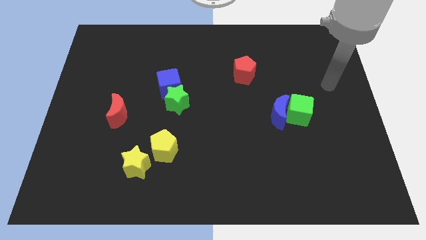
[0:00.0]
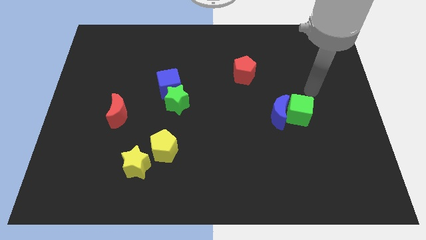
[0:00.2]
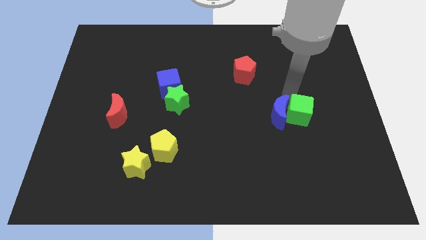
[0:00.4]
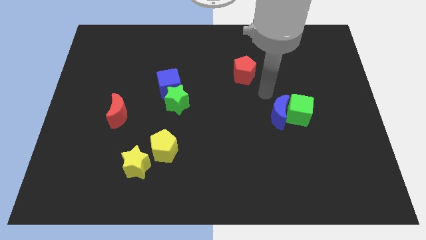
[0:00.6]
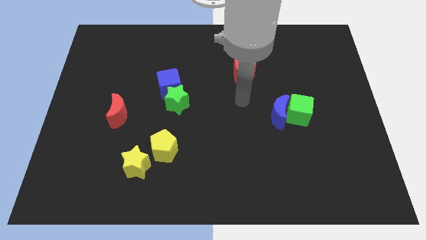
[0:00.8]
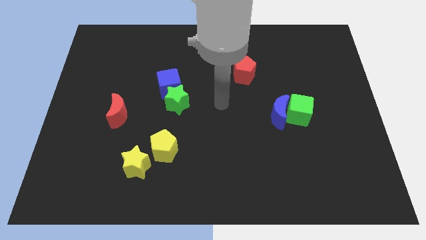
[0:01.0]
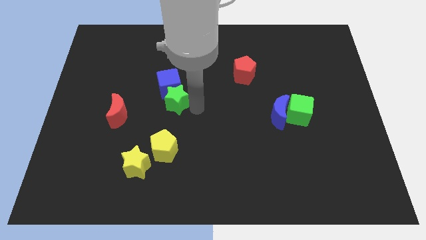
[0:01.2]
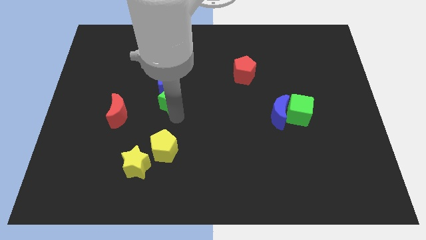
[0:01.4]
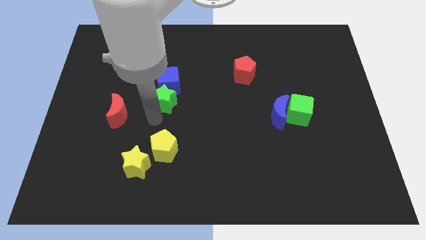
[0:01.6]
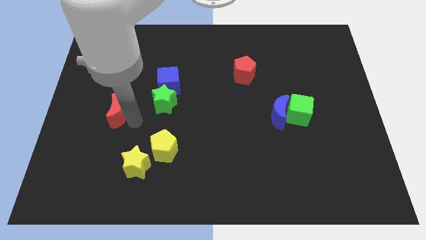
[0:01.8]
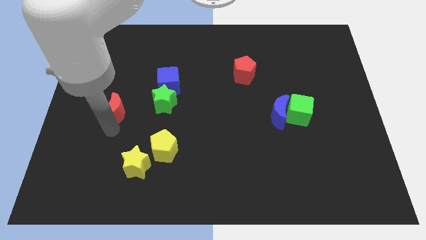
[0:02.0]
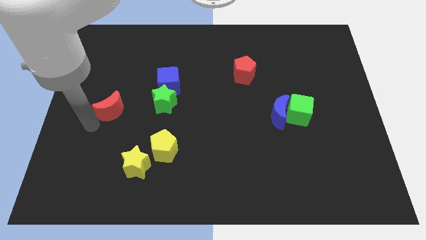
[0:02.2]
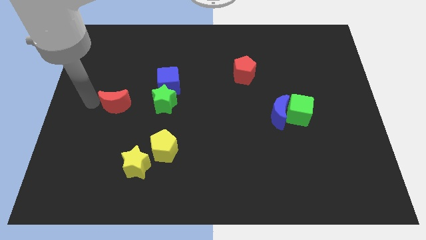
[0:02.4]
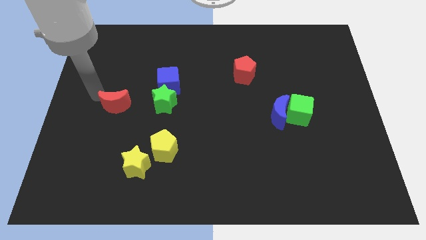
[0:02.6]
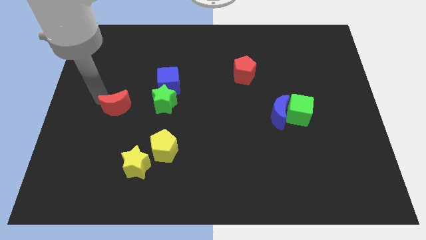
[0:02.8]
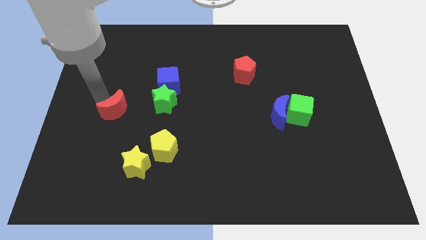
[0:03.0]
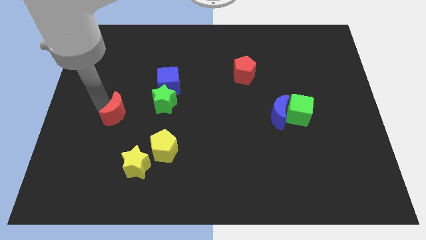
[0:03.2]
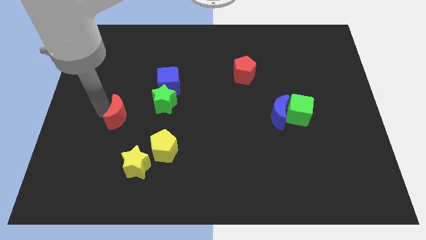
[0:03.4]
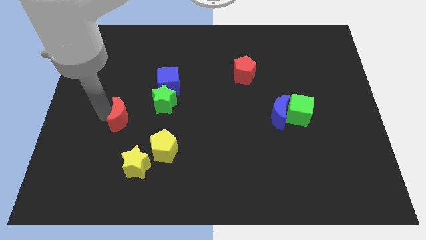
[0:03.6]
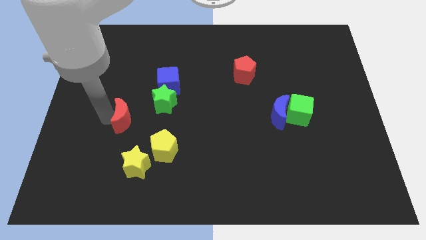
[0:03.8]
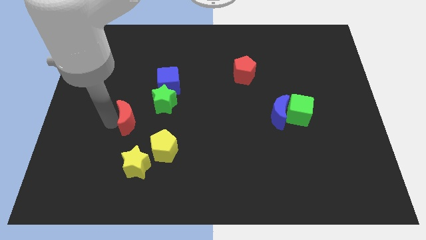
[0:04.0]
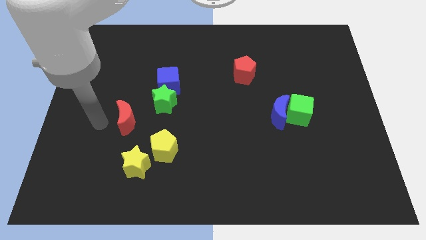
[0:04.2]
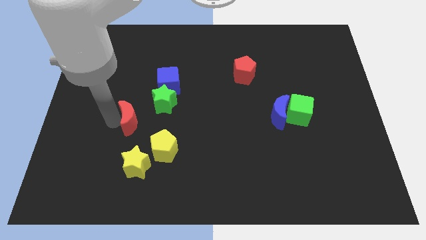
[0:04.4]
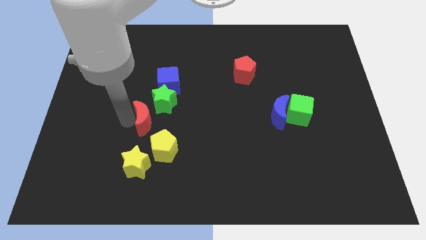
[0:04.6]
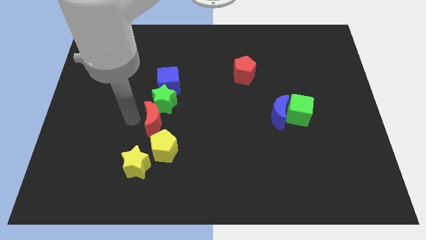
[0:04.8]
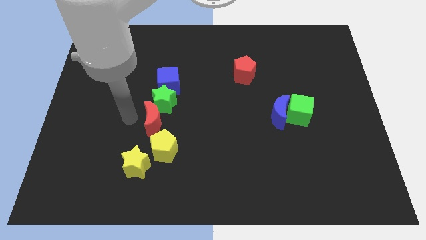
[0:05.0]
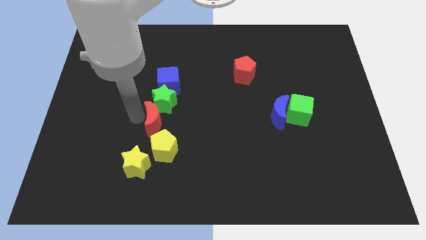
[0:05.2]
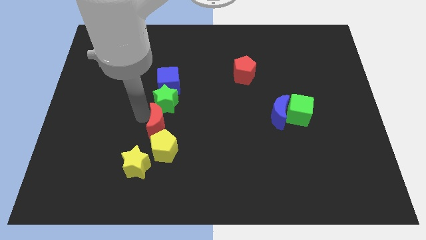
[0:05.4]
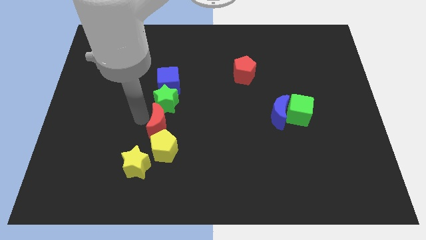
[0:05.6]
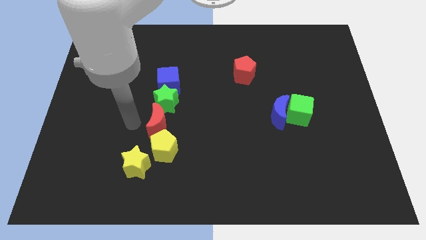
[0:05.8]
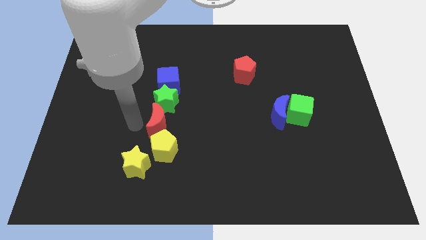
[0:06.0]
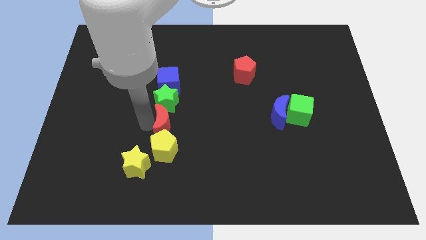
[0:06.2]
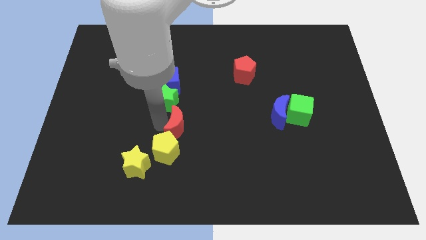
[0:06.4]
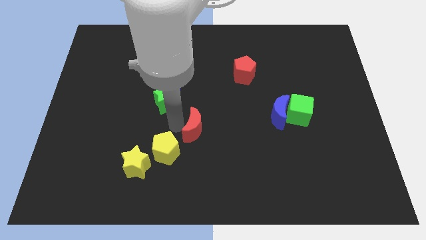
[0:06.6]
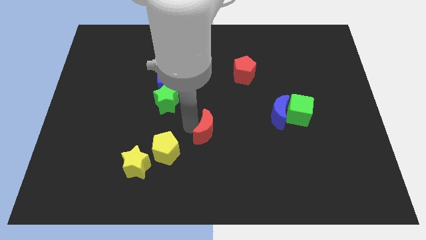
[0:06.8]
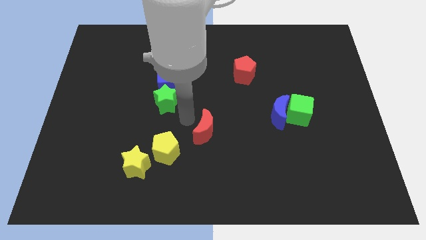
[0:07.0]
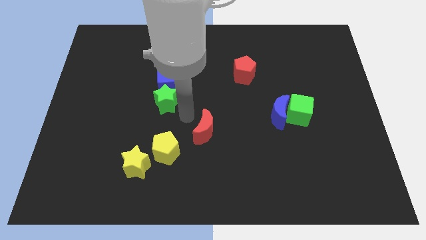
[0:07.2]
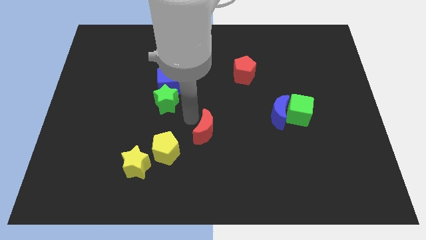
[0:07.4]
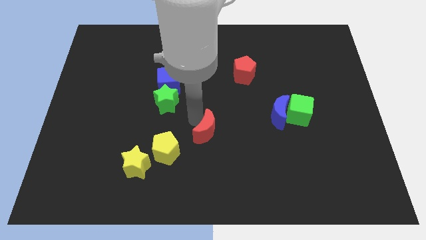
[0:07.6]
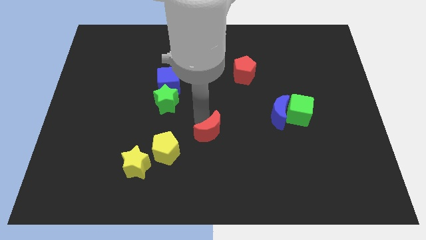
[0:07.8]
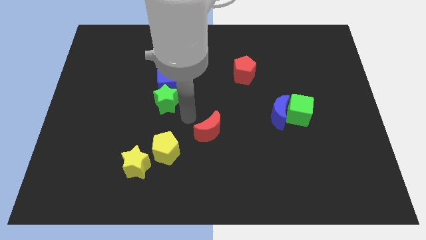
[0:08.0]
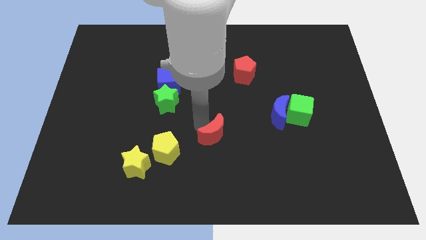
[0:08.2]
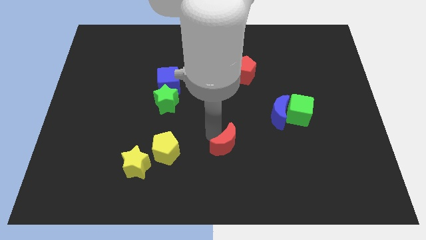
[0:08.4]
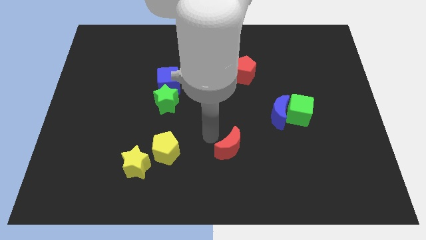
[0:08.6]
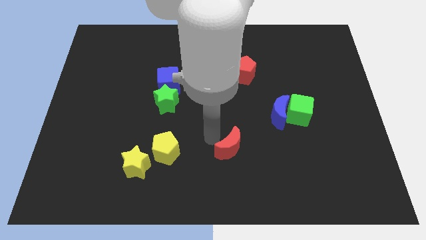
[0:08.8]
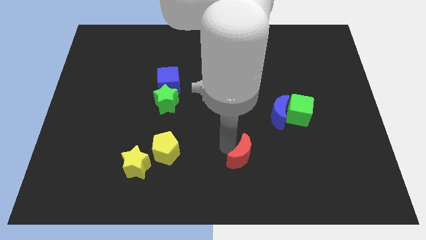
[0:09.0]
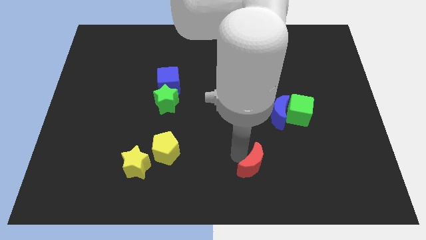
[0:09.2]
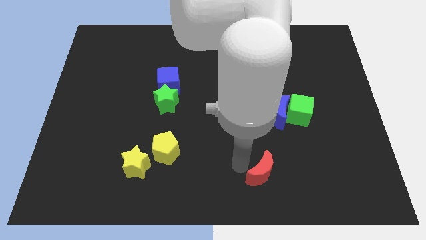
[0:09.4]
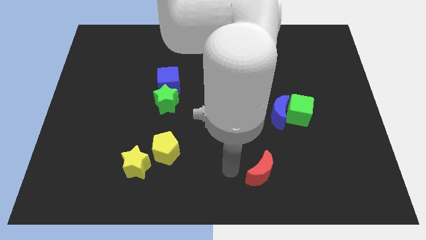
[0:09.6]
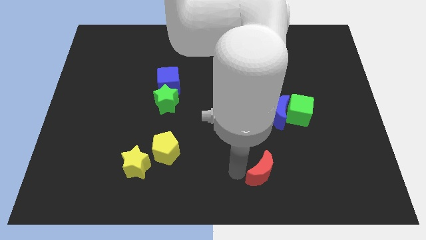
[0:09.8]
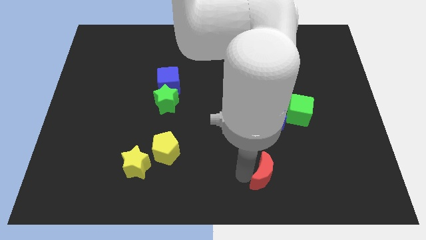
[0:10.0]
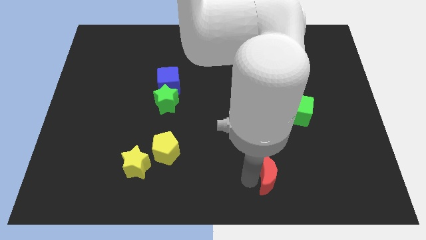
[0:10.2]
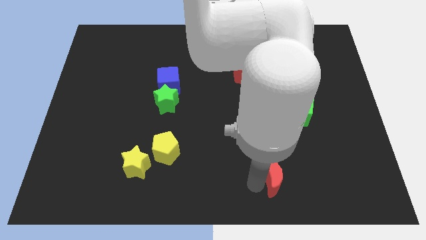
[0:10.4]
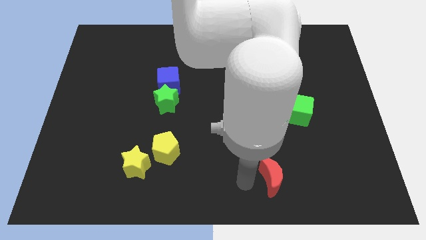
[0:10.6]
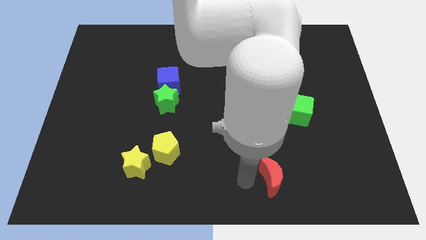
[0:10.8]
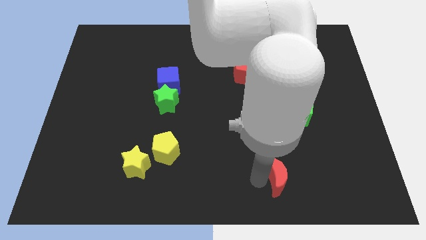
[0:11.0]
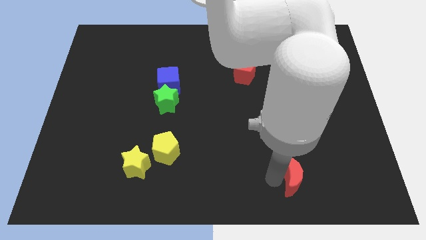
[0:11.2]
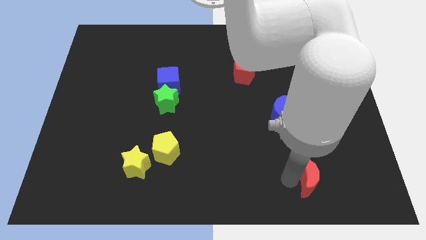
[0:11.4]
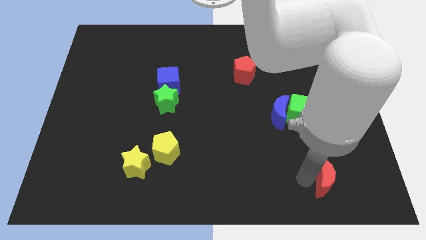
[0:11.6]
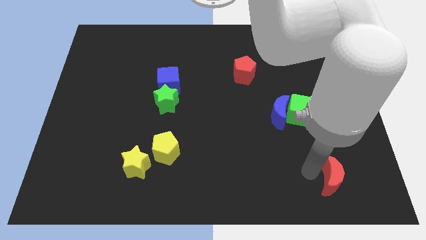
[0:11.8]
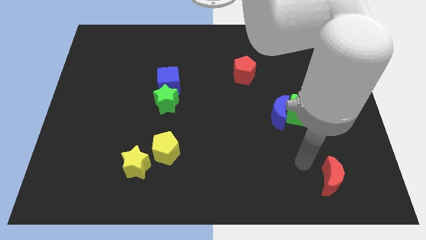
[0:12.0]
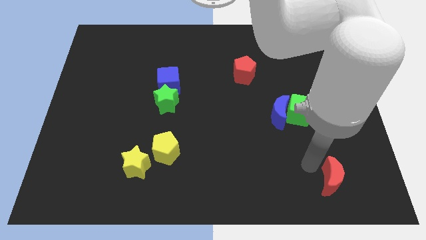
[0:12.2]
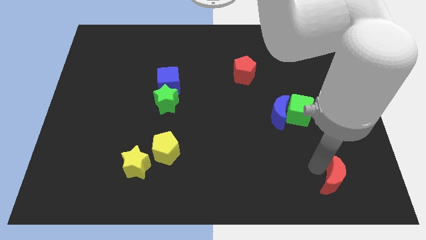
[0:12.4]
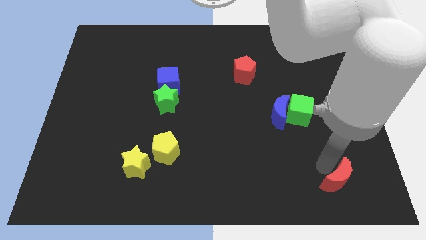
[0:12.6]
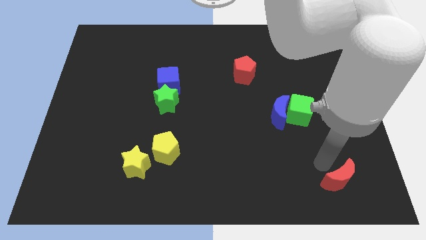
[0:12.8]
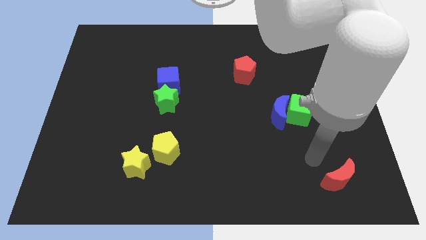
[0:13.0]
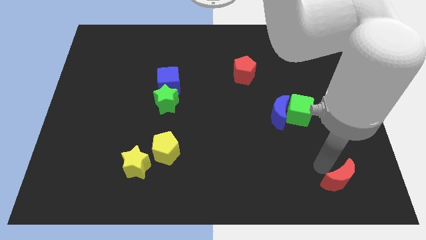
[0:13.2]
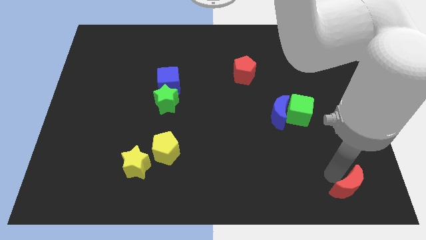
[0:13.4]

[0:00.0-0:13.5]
slide the red moon to the bottom right of the board
